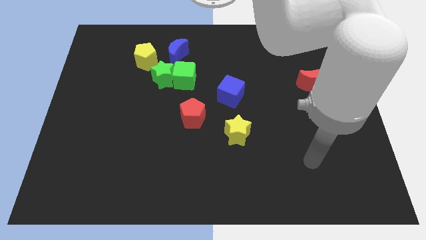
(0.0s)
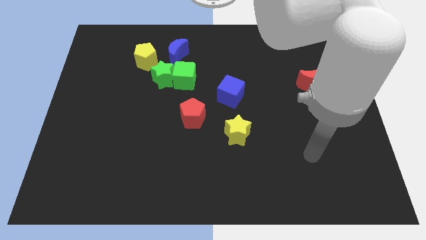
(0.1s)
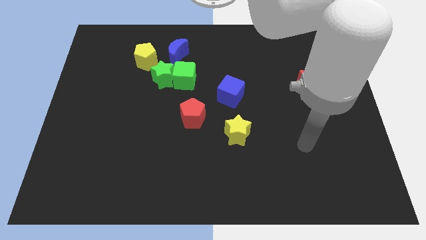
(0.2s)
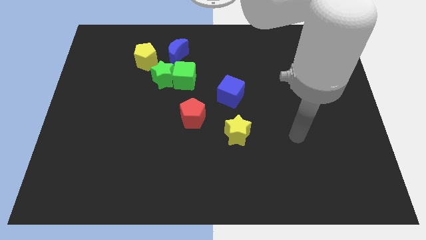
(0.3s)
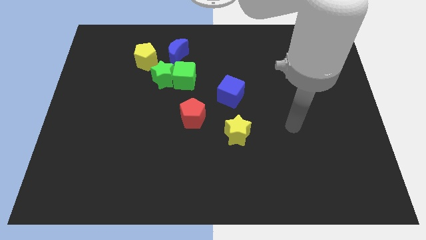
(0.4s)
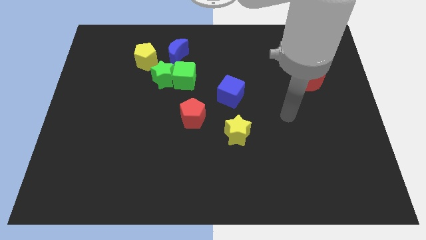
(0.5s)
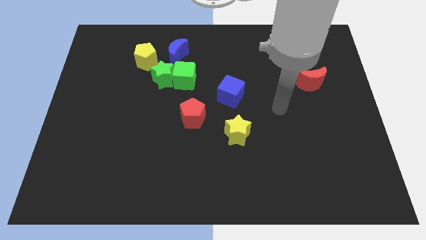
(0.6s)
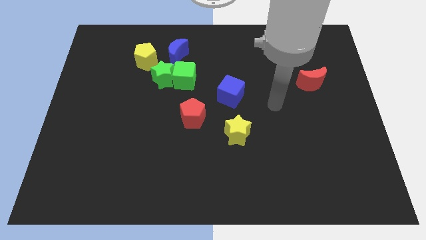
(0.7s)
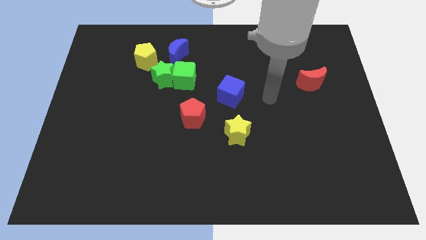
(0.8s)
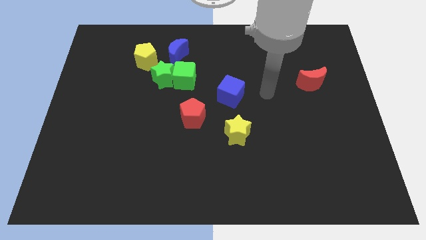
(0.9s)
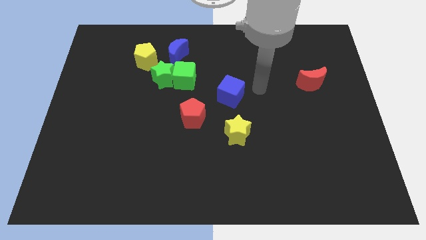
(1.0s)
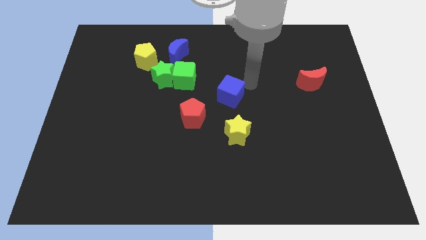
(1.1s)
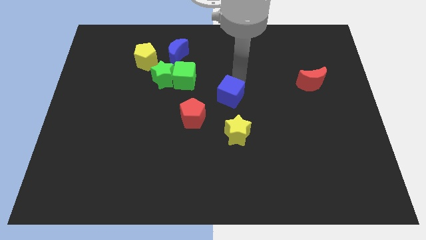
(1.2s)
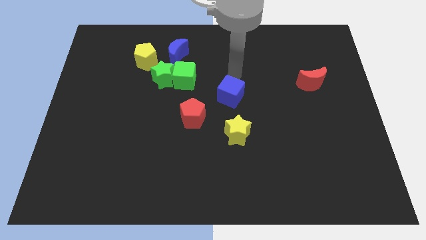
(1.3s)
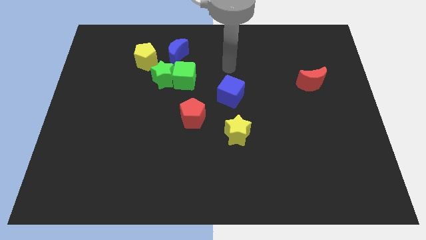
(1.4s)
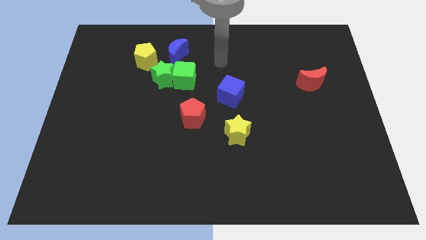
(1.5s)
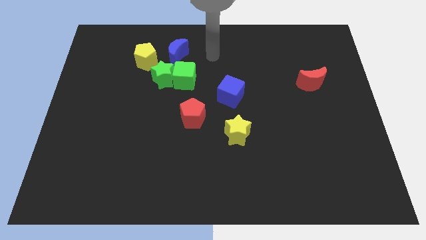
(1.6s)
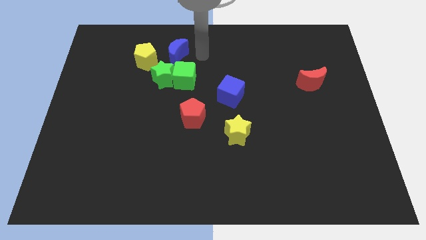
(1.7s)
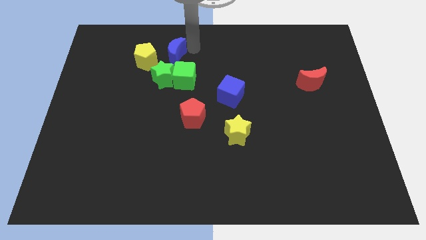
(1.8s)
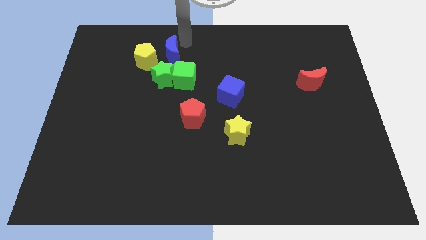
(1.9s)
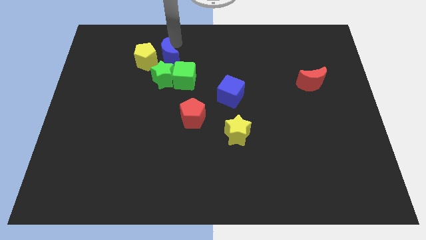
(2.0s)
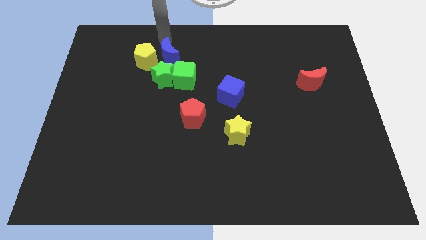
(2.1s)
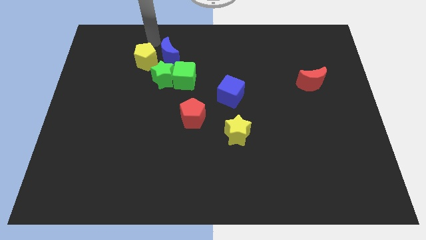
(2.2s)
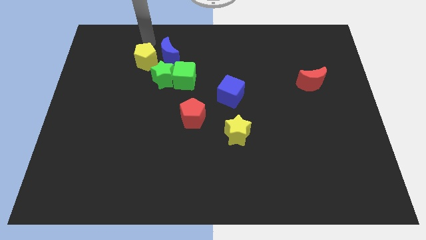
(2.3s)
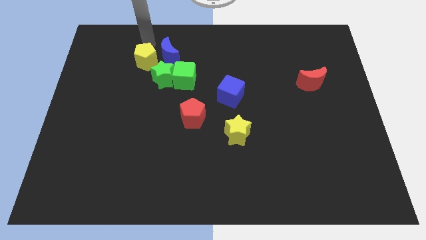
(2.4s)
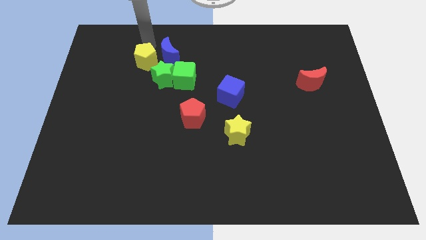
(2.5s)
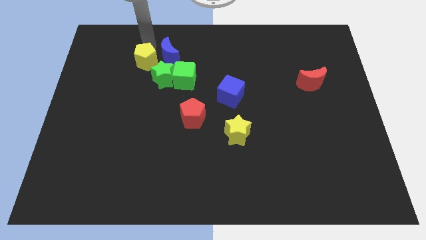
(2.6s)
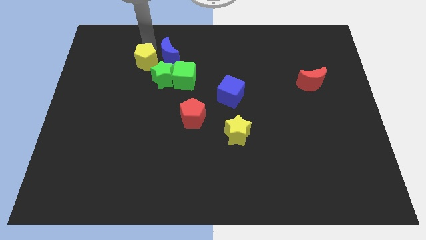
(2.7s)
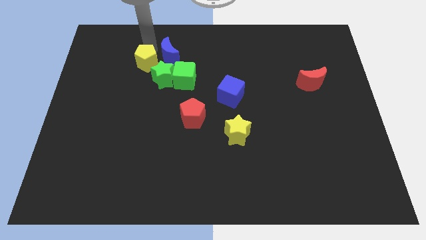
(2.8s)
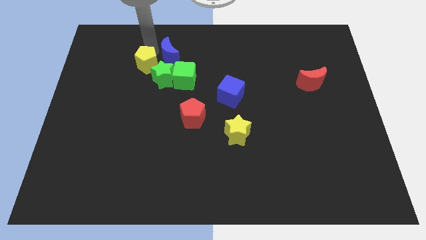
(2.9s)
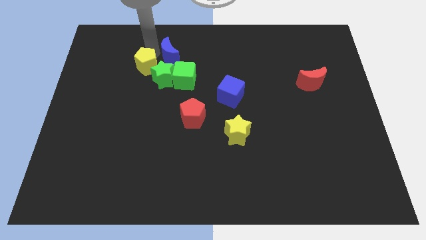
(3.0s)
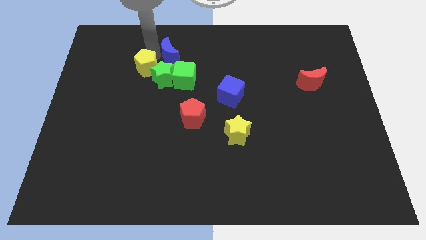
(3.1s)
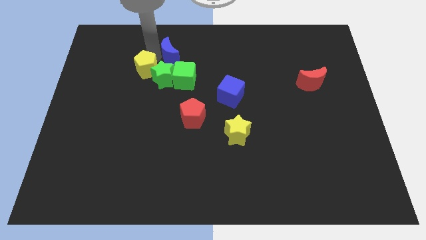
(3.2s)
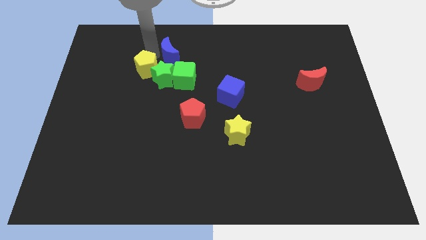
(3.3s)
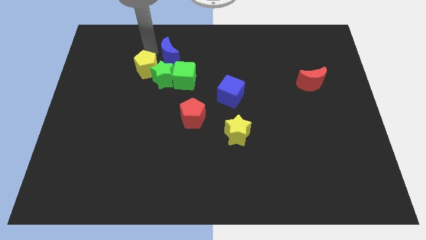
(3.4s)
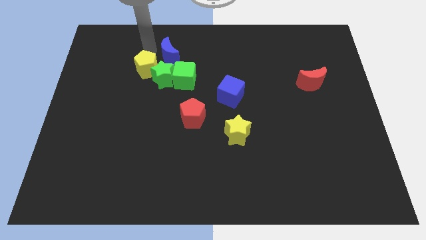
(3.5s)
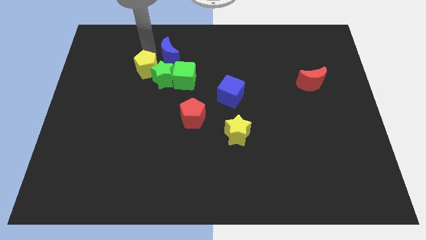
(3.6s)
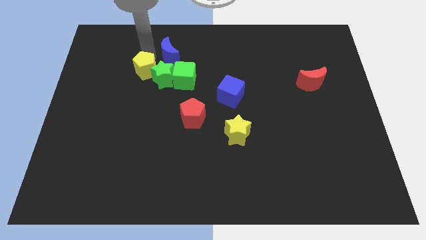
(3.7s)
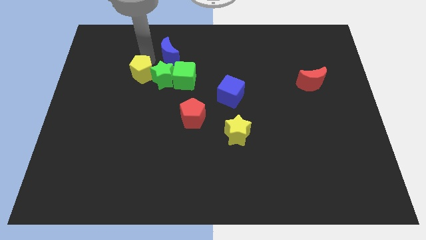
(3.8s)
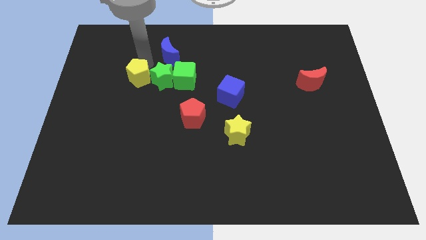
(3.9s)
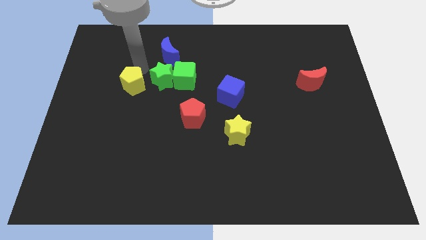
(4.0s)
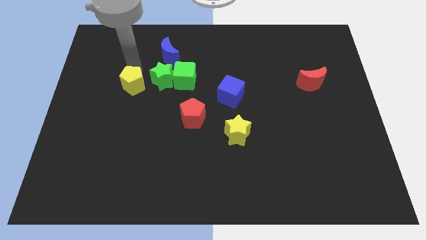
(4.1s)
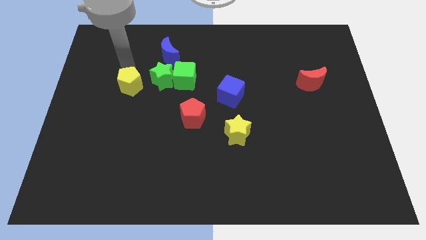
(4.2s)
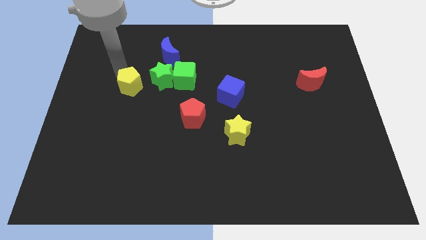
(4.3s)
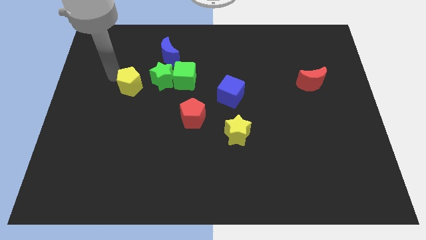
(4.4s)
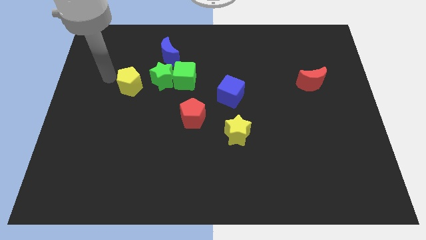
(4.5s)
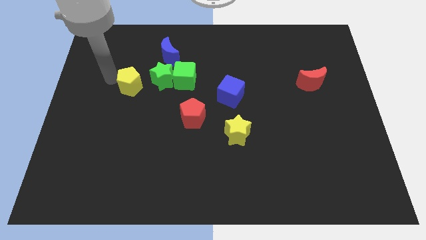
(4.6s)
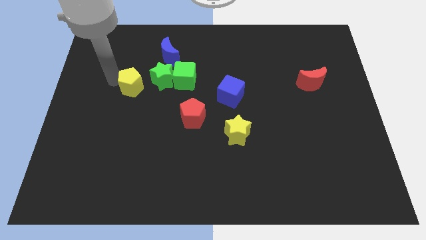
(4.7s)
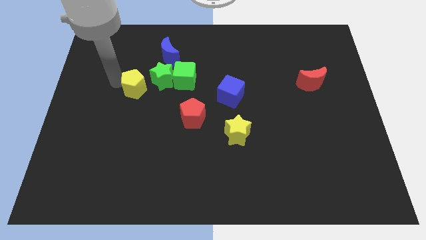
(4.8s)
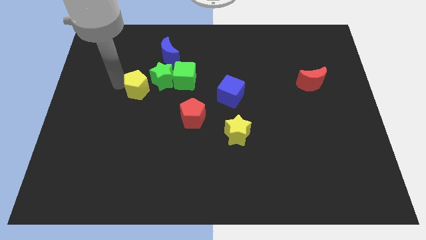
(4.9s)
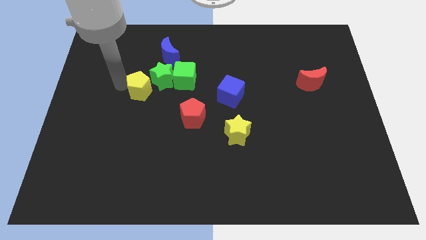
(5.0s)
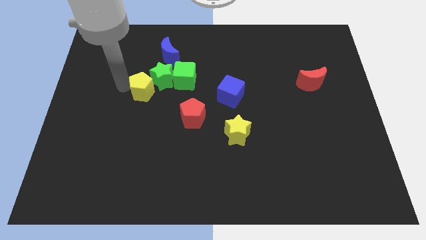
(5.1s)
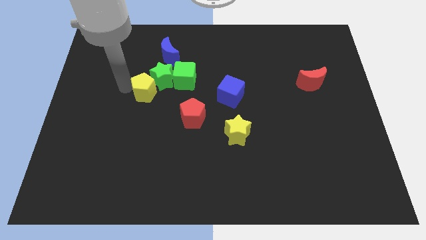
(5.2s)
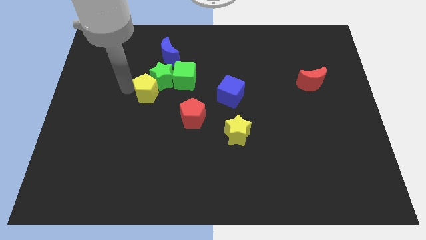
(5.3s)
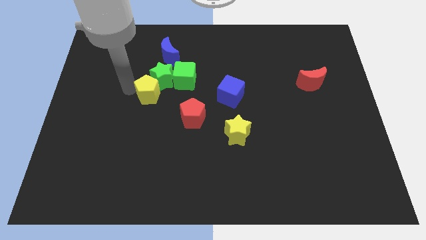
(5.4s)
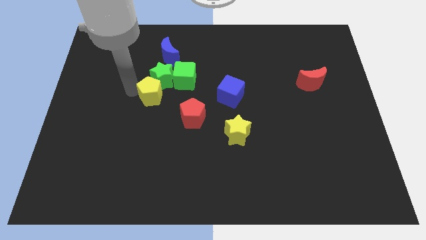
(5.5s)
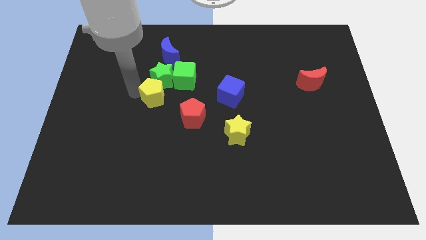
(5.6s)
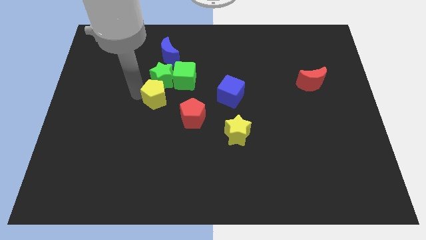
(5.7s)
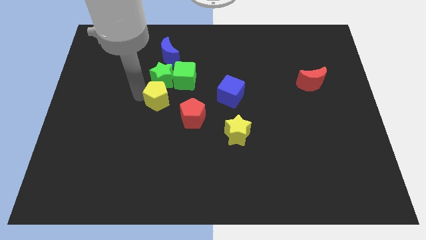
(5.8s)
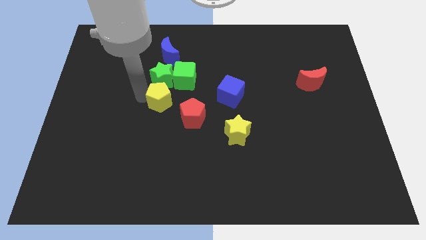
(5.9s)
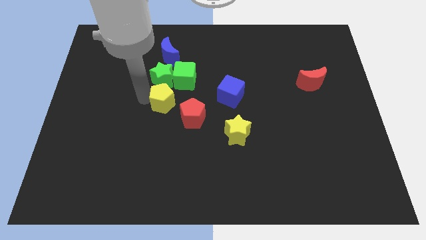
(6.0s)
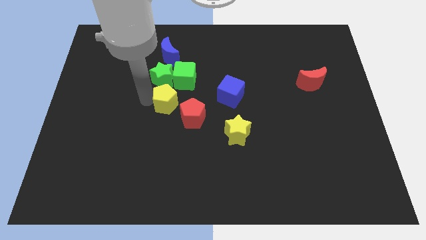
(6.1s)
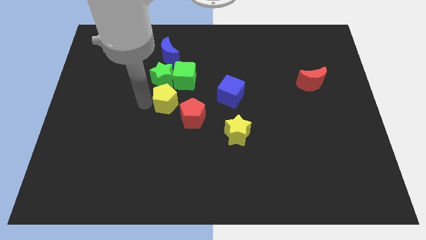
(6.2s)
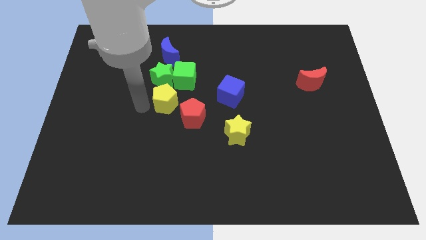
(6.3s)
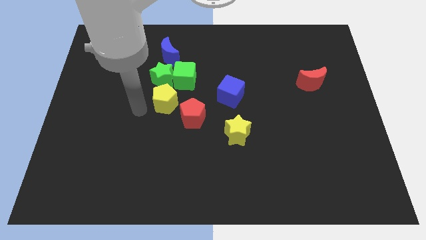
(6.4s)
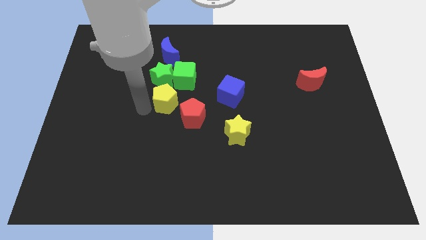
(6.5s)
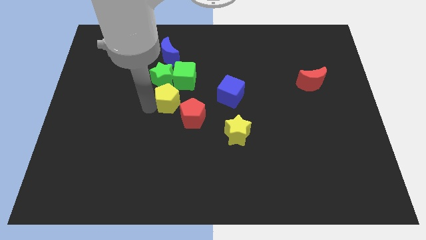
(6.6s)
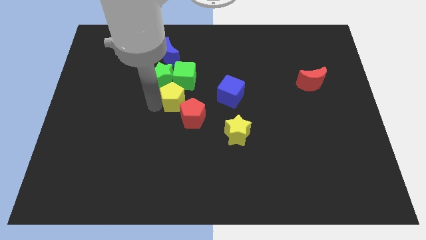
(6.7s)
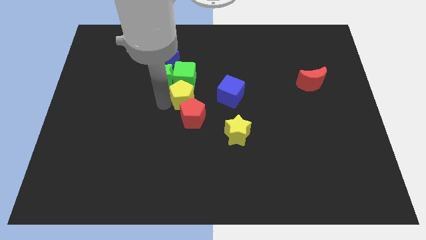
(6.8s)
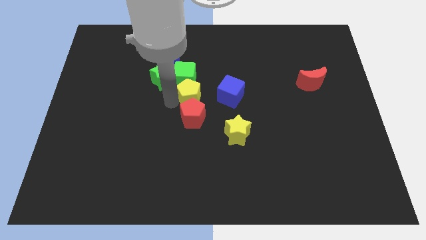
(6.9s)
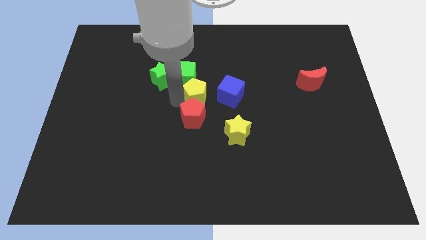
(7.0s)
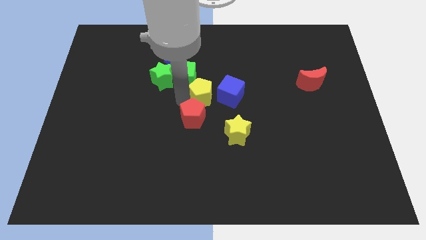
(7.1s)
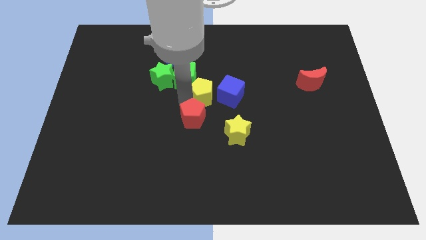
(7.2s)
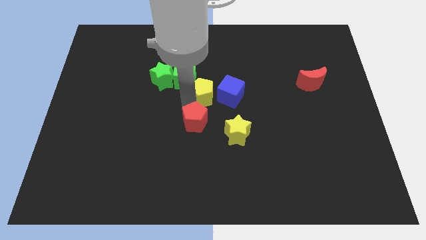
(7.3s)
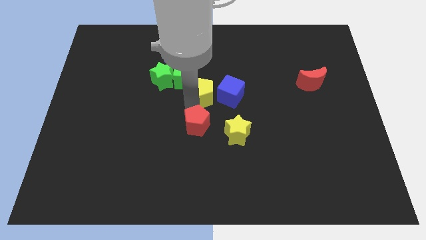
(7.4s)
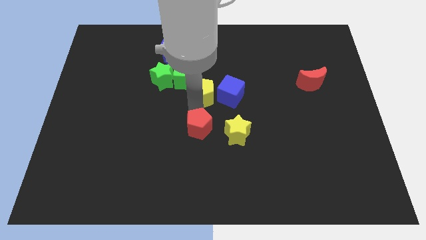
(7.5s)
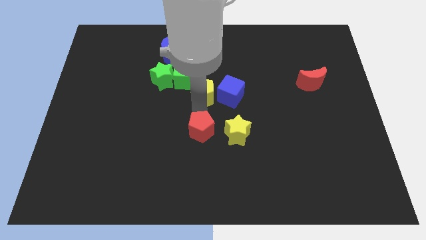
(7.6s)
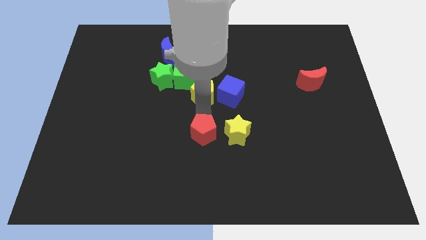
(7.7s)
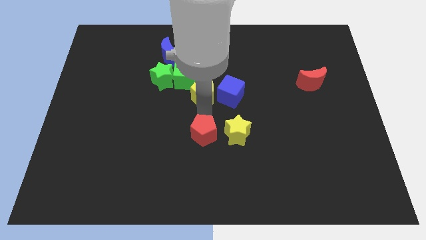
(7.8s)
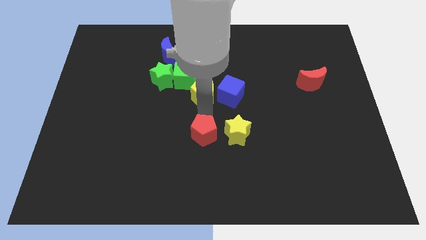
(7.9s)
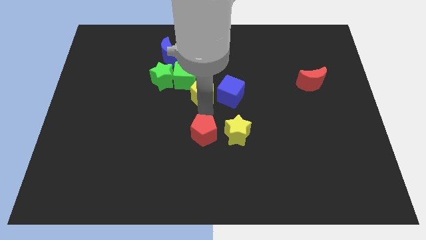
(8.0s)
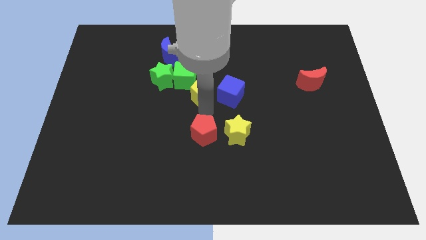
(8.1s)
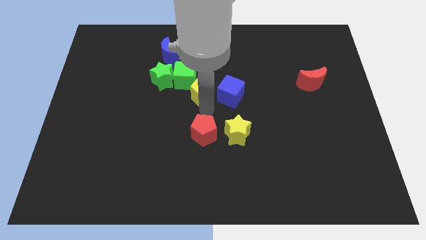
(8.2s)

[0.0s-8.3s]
move the yellow pentagon a little right
